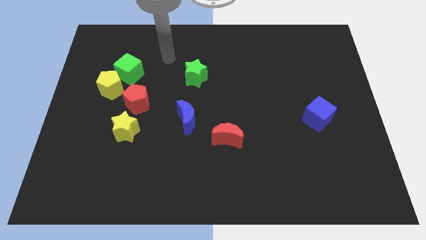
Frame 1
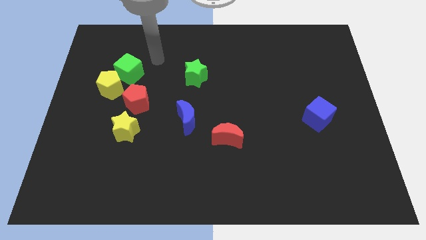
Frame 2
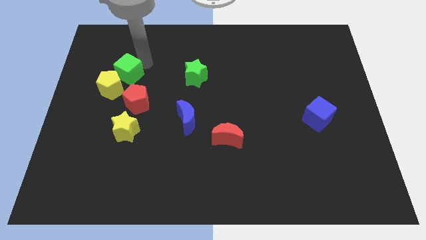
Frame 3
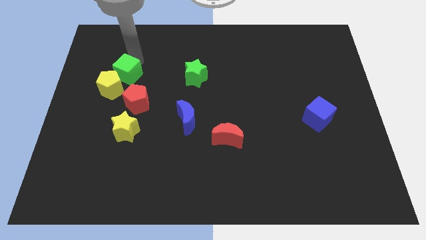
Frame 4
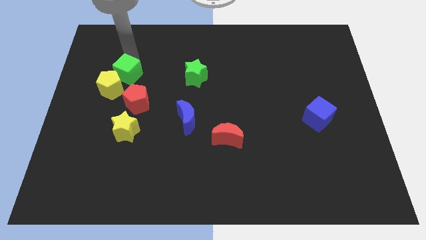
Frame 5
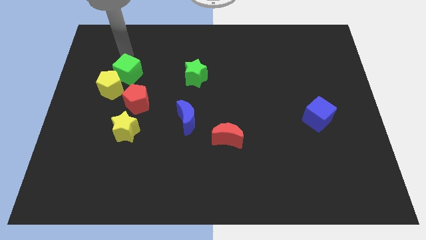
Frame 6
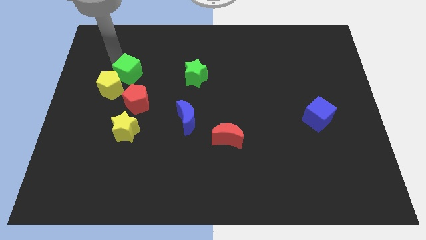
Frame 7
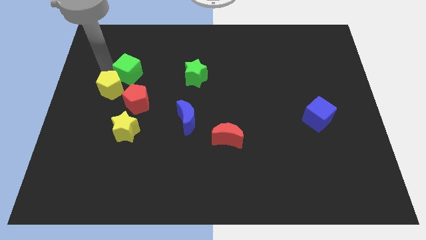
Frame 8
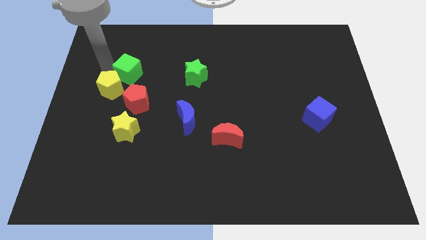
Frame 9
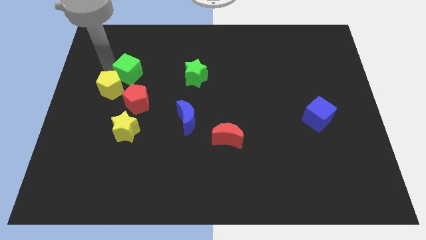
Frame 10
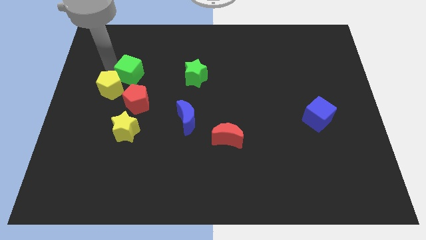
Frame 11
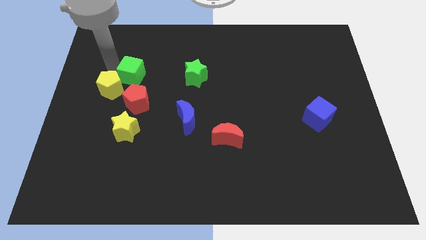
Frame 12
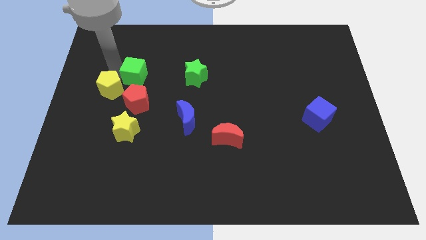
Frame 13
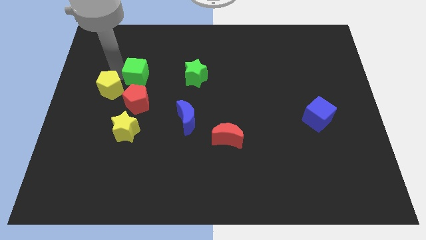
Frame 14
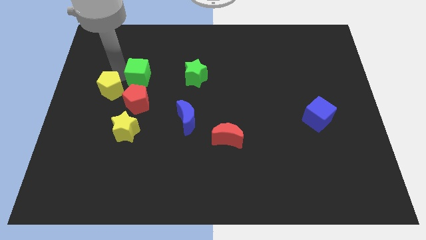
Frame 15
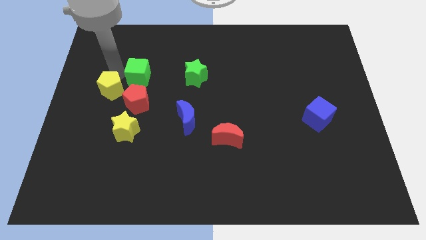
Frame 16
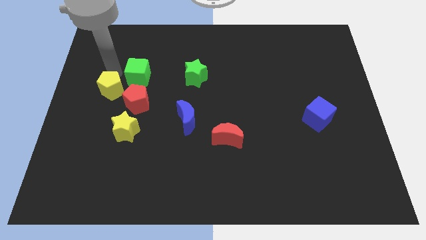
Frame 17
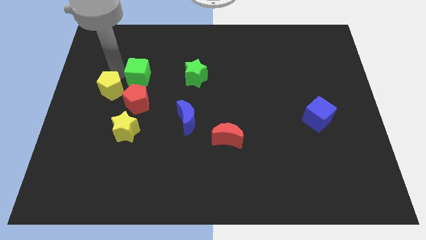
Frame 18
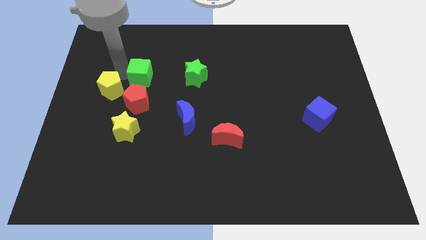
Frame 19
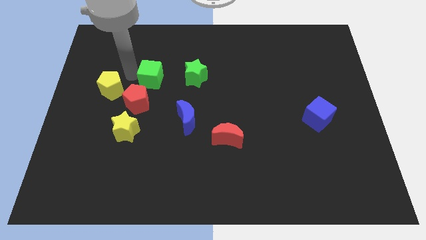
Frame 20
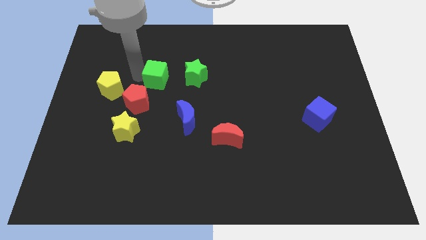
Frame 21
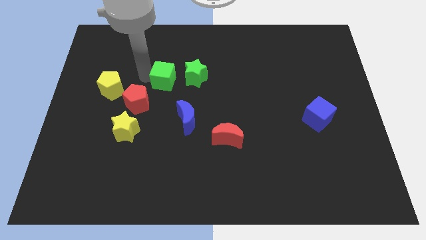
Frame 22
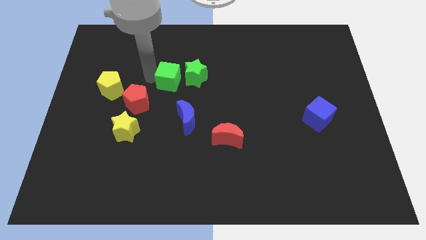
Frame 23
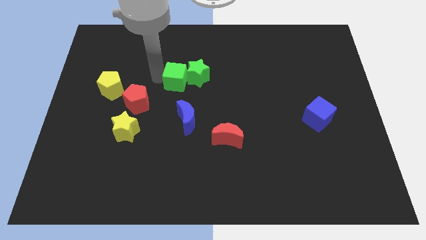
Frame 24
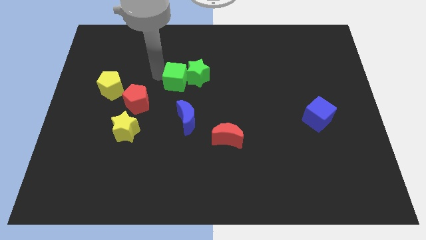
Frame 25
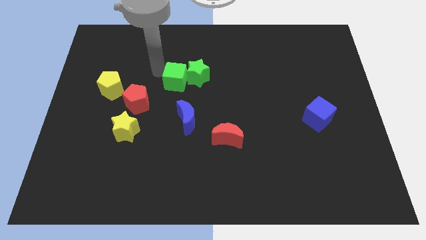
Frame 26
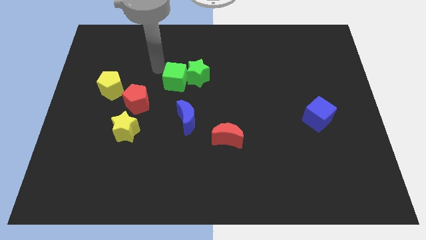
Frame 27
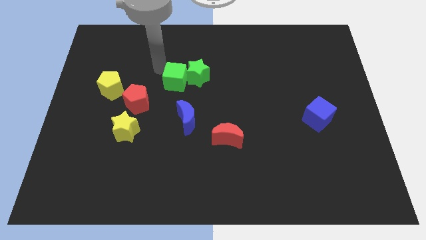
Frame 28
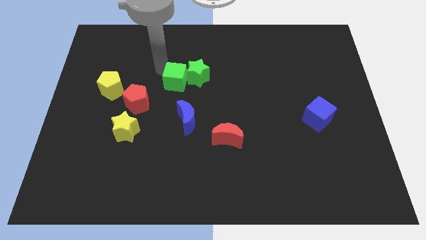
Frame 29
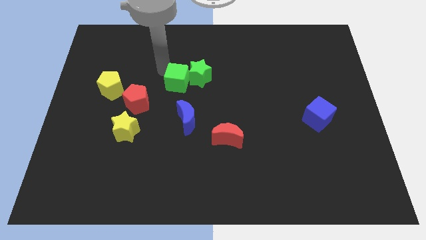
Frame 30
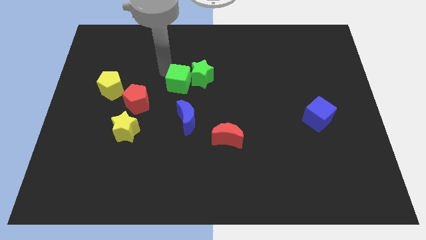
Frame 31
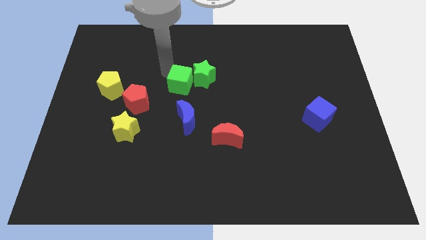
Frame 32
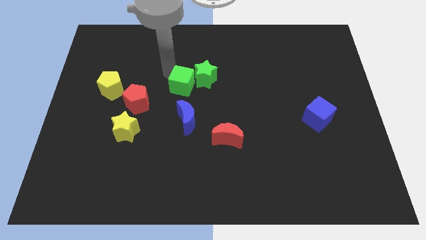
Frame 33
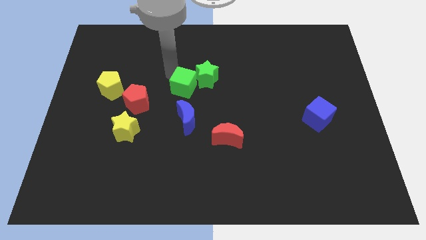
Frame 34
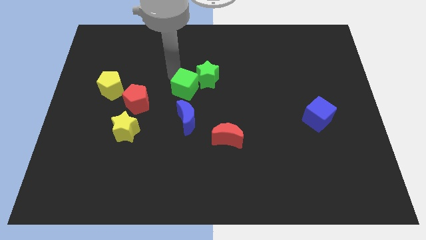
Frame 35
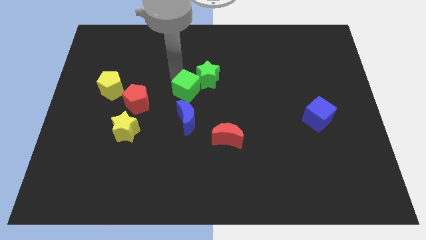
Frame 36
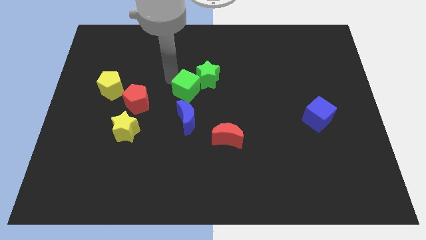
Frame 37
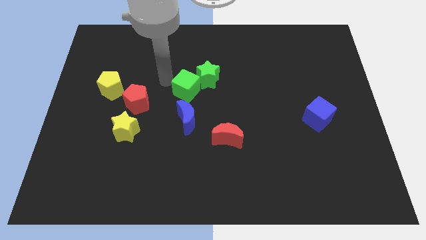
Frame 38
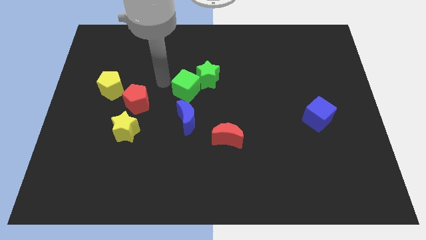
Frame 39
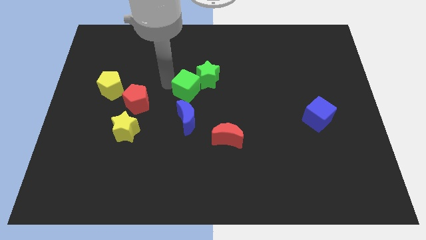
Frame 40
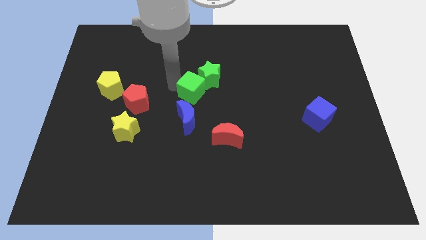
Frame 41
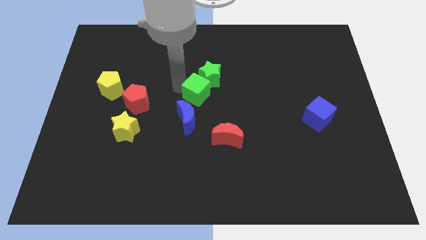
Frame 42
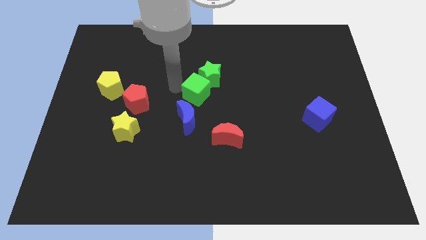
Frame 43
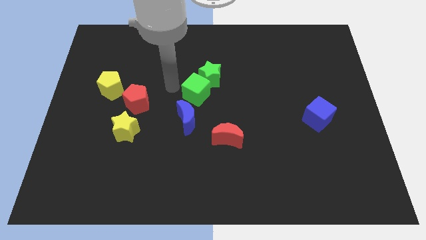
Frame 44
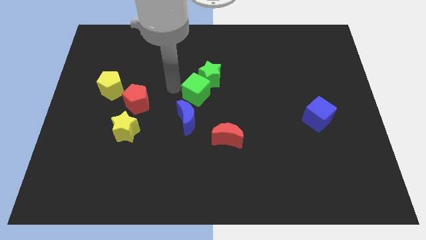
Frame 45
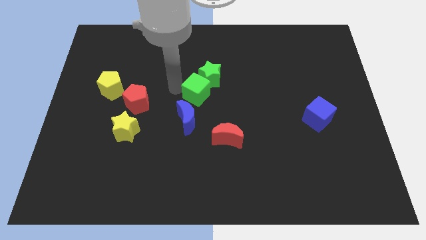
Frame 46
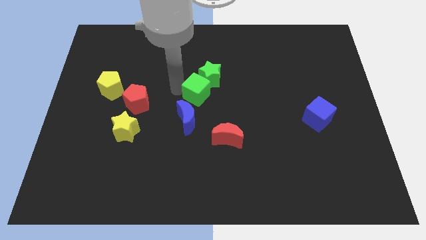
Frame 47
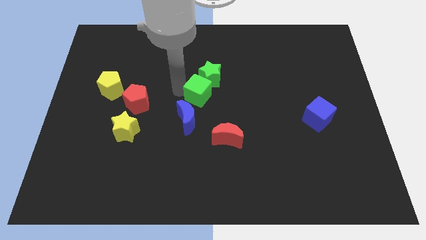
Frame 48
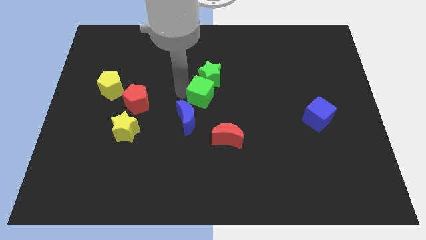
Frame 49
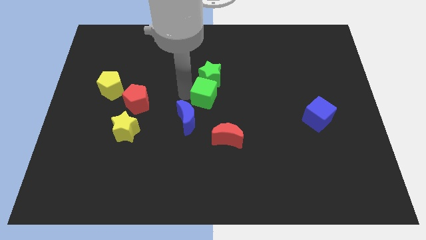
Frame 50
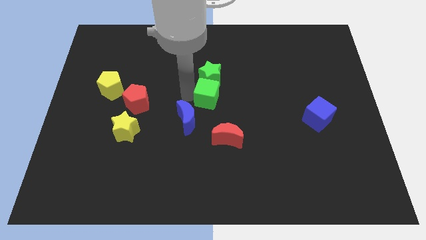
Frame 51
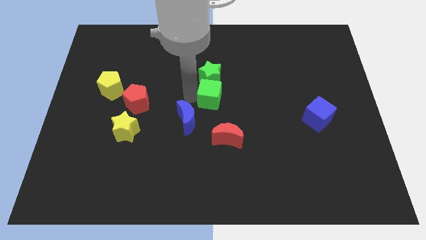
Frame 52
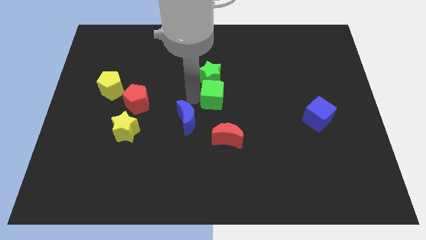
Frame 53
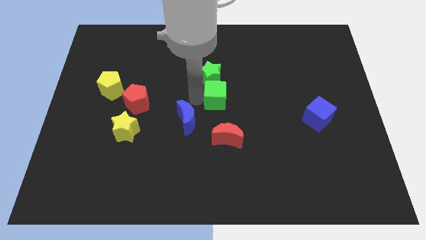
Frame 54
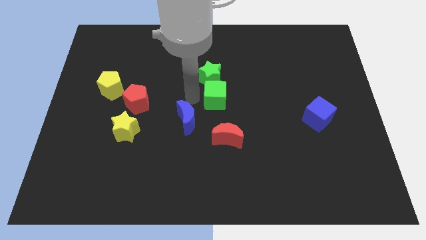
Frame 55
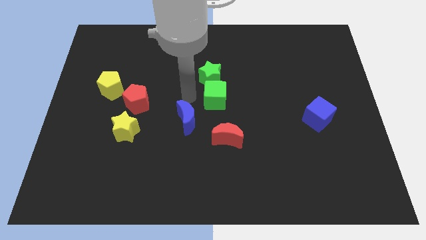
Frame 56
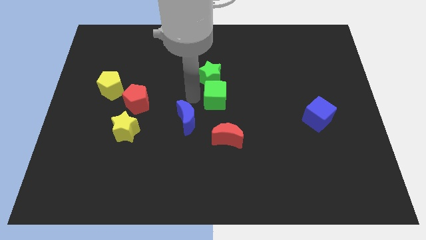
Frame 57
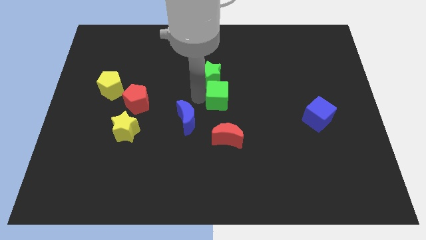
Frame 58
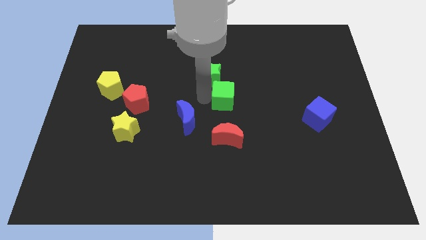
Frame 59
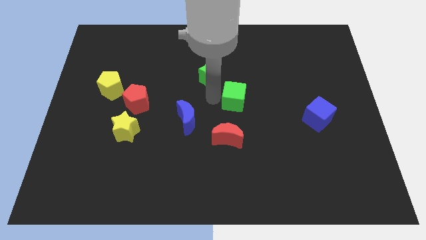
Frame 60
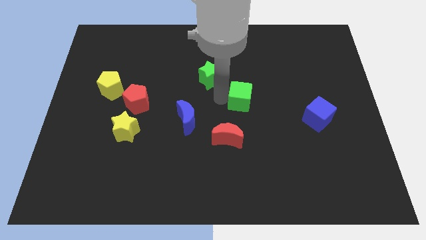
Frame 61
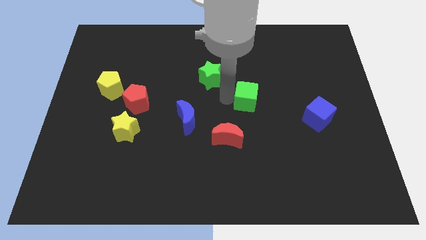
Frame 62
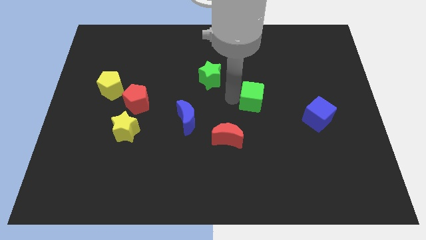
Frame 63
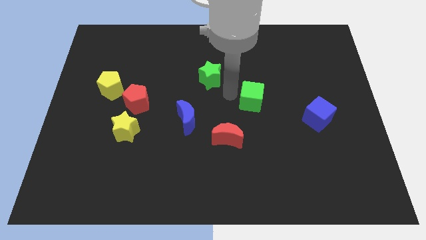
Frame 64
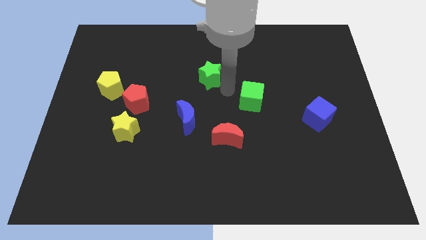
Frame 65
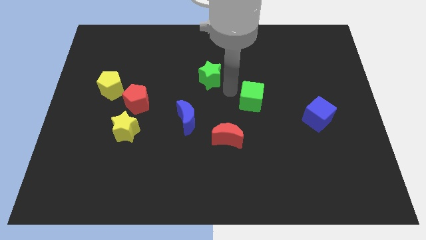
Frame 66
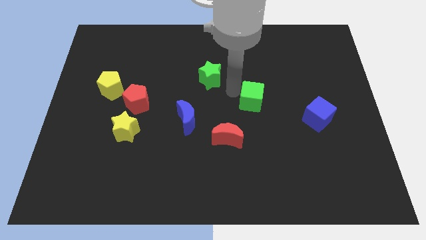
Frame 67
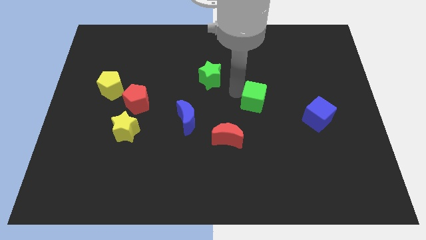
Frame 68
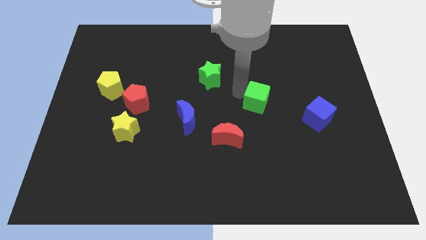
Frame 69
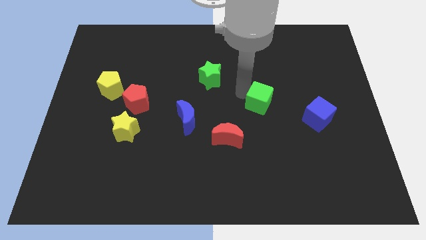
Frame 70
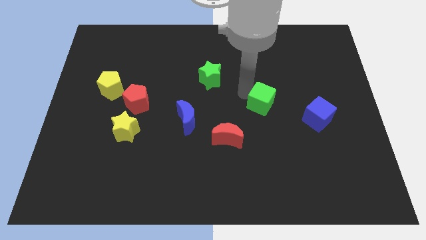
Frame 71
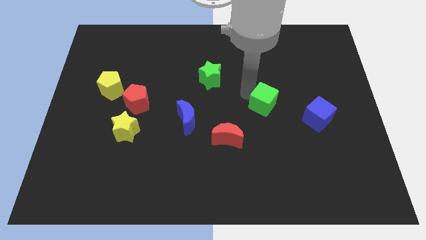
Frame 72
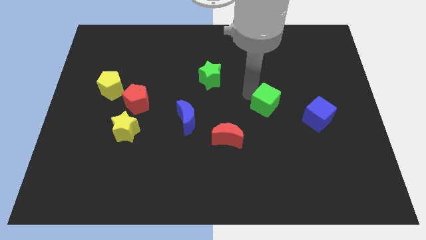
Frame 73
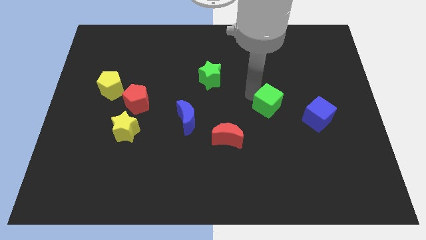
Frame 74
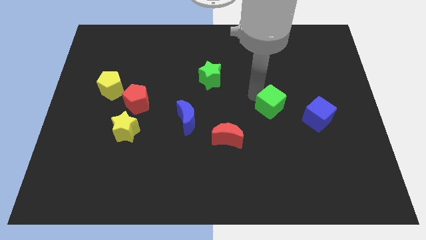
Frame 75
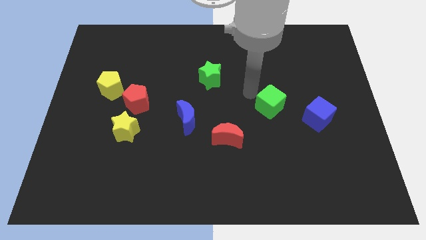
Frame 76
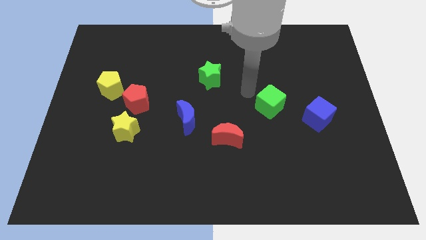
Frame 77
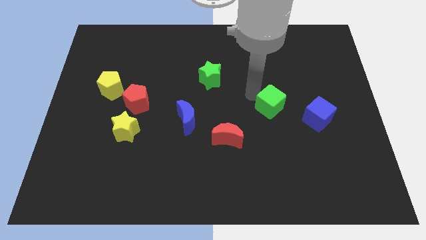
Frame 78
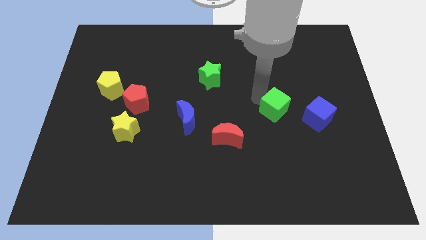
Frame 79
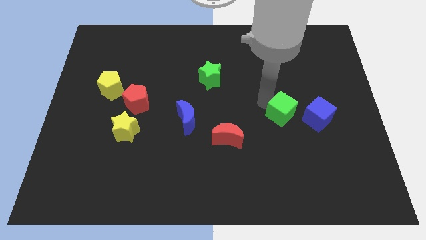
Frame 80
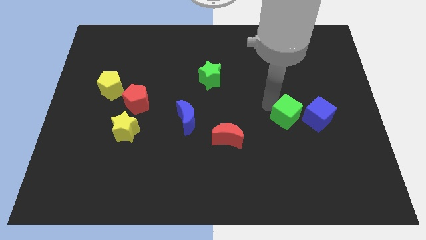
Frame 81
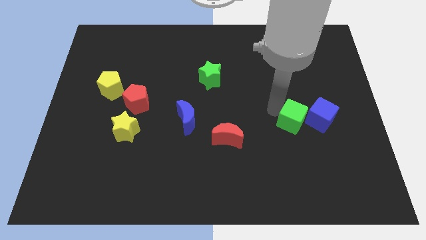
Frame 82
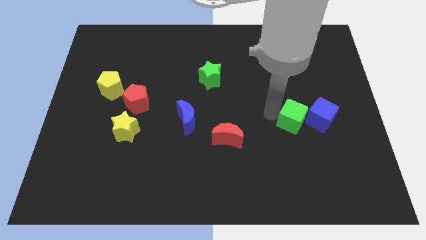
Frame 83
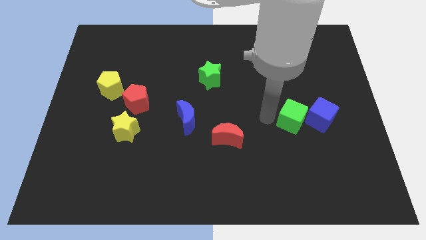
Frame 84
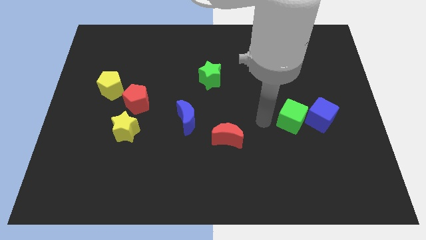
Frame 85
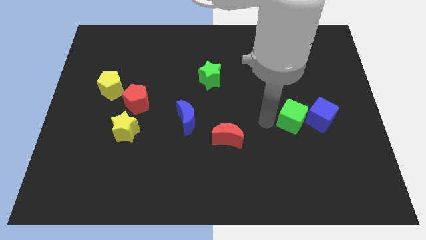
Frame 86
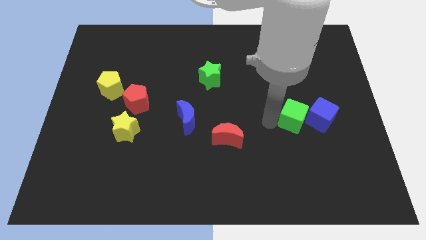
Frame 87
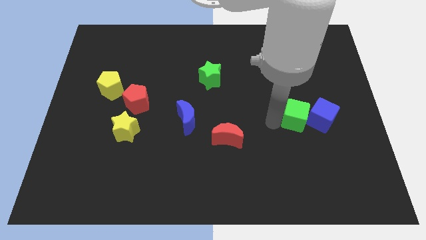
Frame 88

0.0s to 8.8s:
put the green cube next to the blue cube
